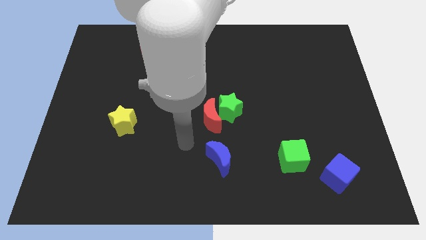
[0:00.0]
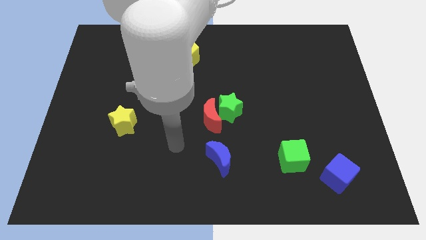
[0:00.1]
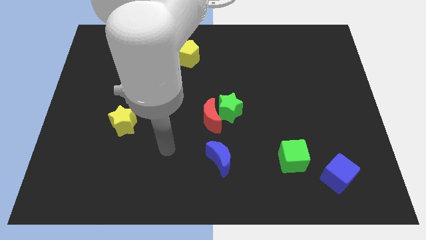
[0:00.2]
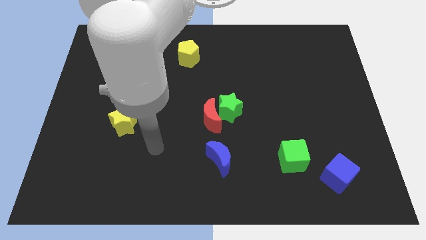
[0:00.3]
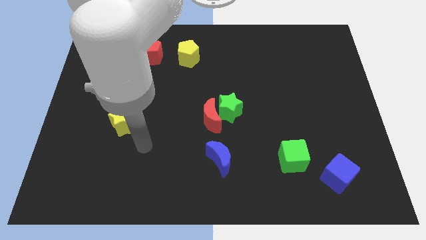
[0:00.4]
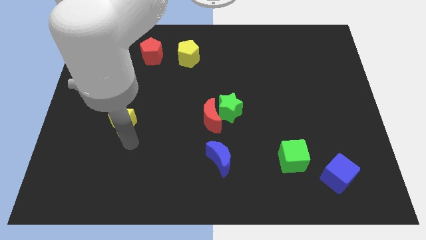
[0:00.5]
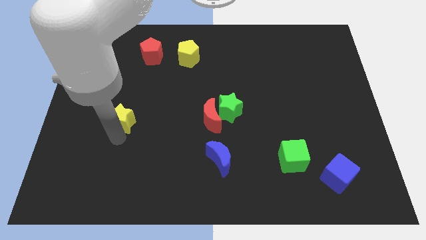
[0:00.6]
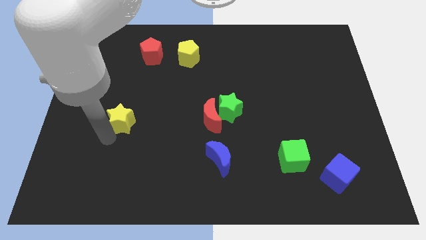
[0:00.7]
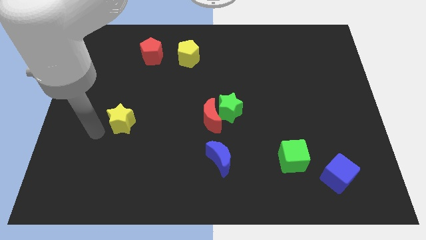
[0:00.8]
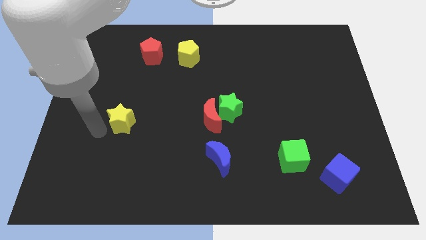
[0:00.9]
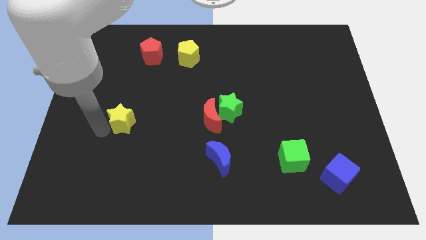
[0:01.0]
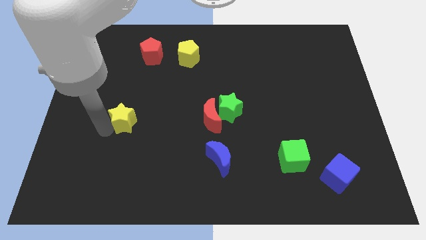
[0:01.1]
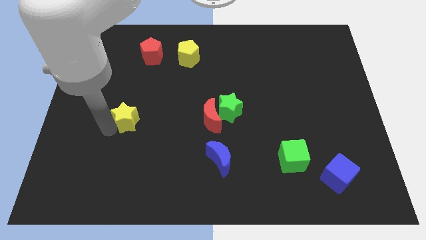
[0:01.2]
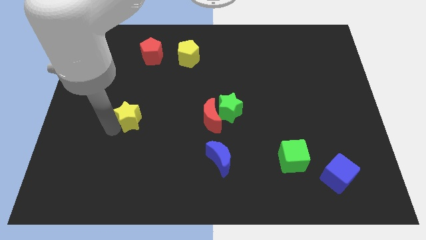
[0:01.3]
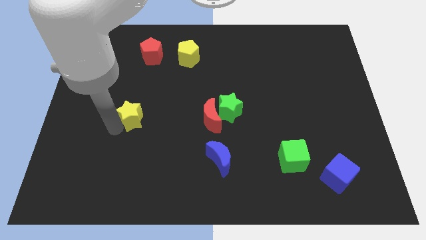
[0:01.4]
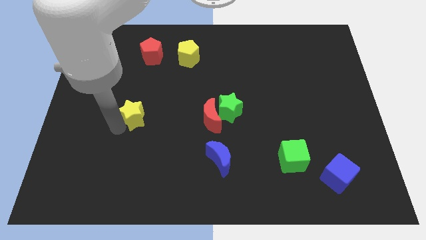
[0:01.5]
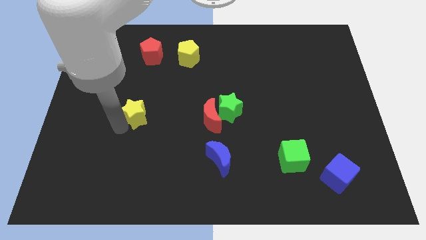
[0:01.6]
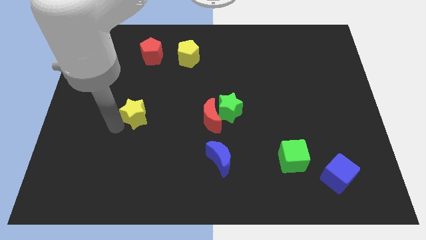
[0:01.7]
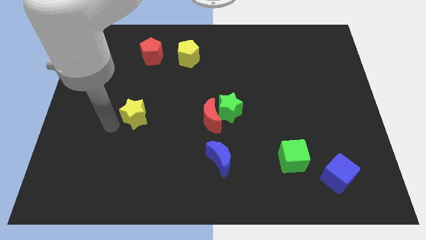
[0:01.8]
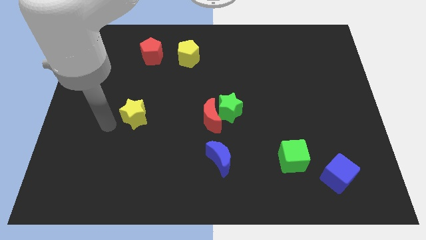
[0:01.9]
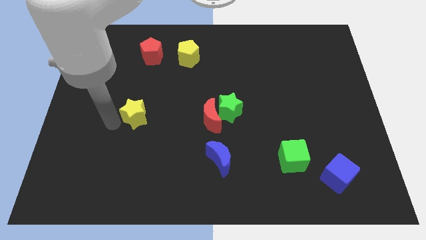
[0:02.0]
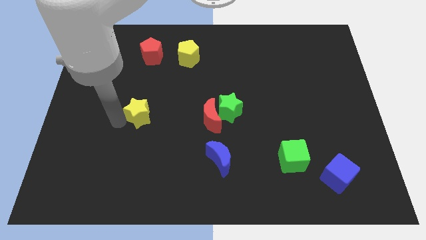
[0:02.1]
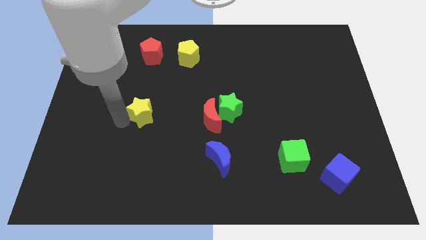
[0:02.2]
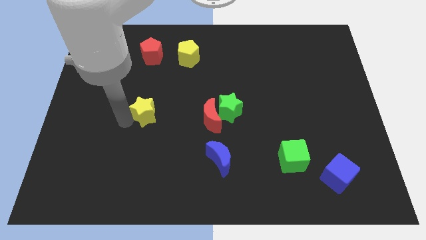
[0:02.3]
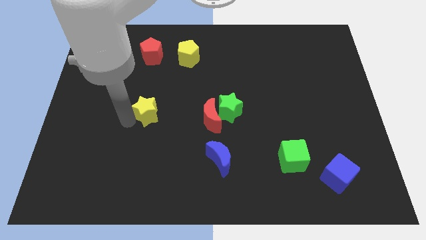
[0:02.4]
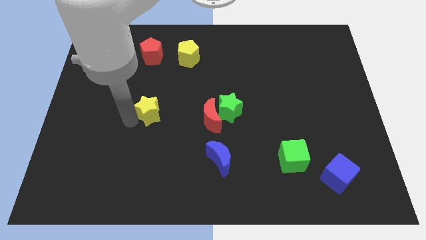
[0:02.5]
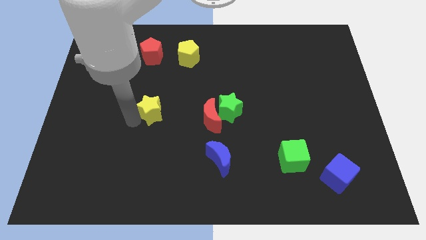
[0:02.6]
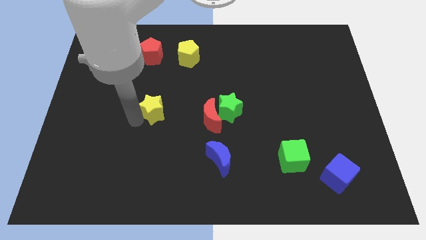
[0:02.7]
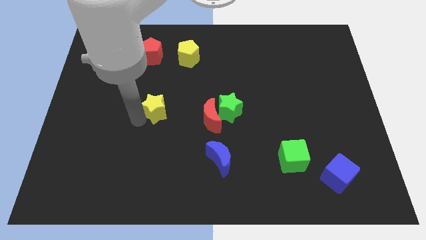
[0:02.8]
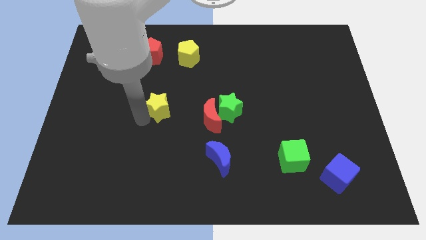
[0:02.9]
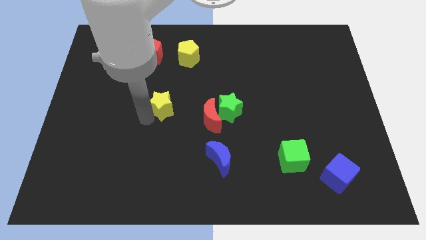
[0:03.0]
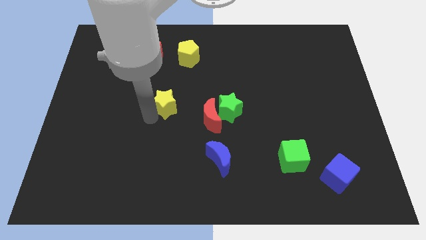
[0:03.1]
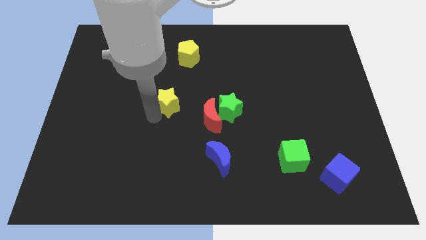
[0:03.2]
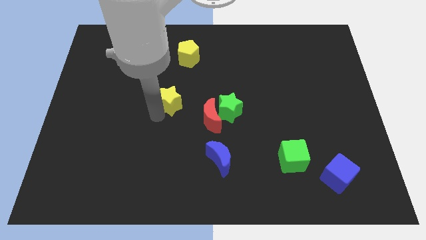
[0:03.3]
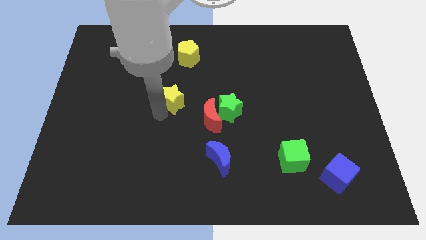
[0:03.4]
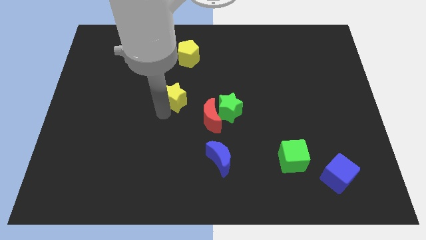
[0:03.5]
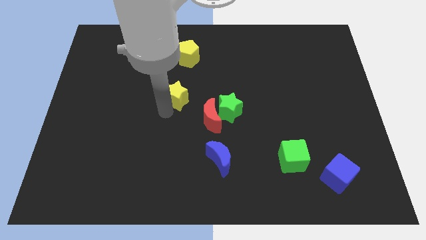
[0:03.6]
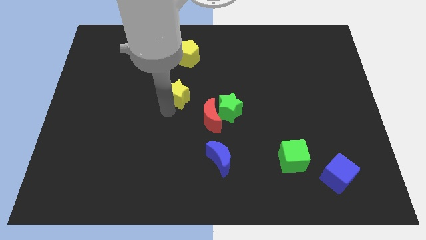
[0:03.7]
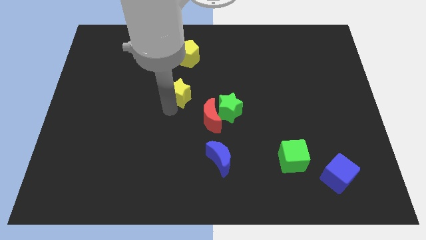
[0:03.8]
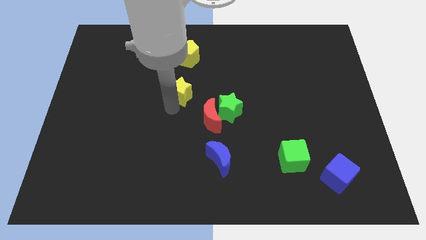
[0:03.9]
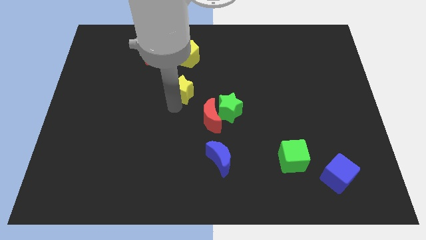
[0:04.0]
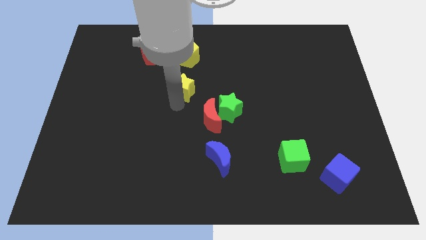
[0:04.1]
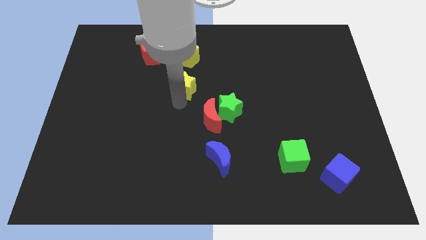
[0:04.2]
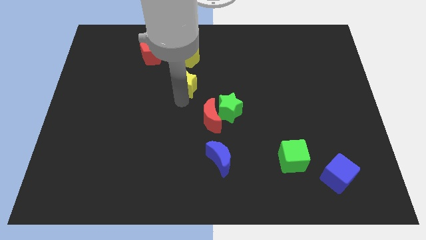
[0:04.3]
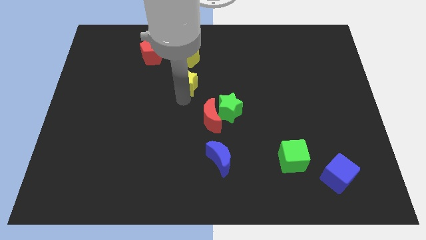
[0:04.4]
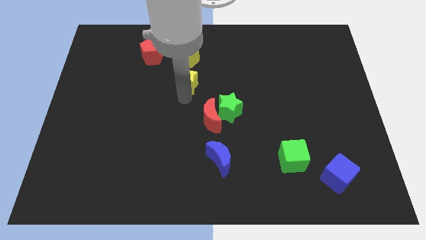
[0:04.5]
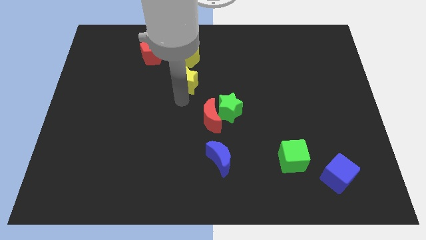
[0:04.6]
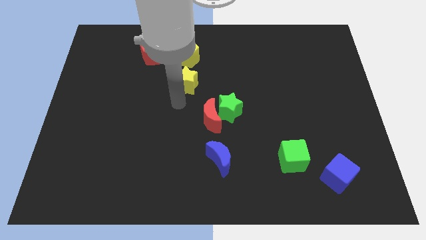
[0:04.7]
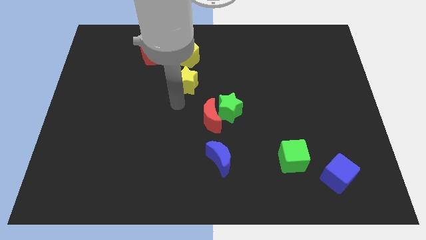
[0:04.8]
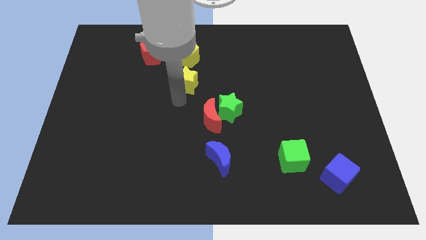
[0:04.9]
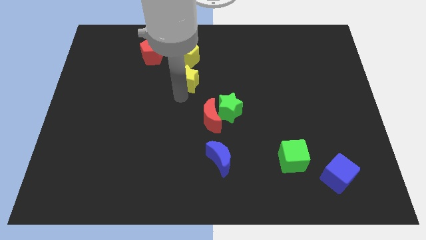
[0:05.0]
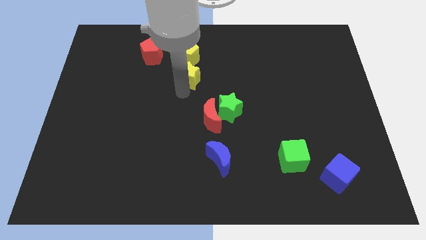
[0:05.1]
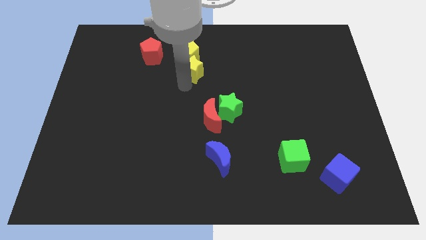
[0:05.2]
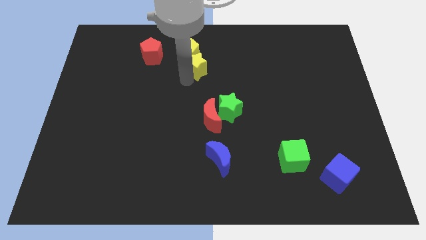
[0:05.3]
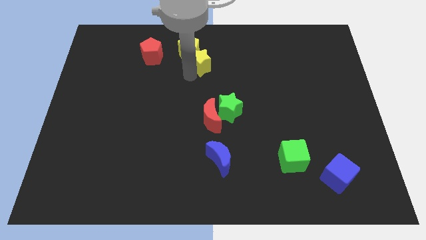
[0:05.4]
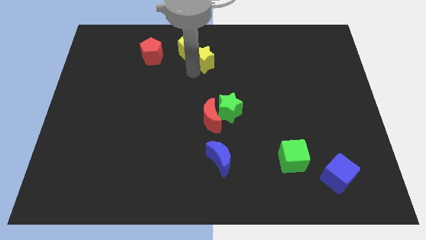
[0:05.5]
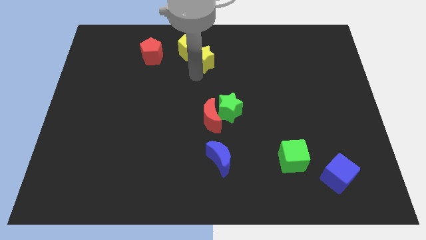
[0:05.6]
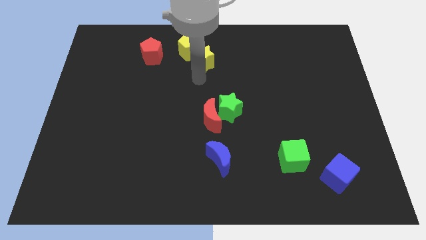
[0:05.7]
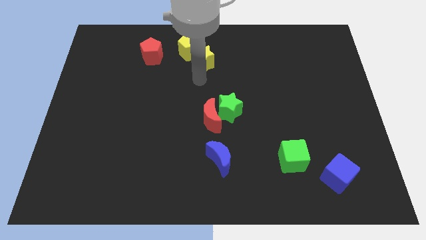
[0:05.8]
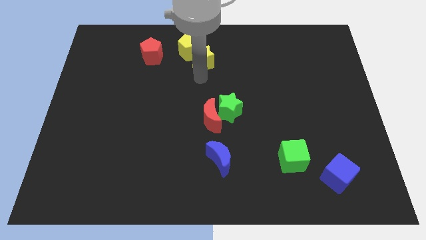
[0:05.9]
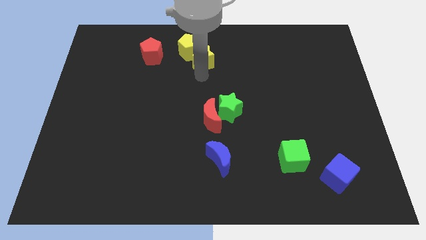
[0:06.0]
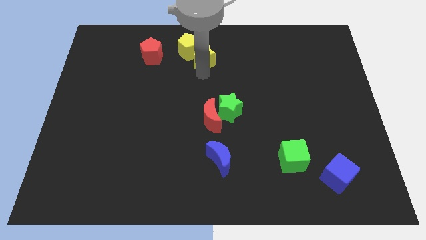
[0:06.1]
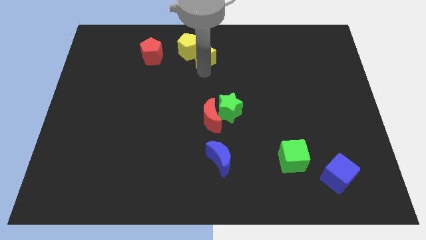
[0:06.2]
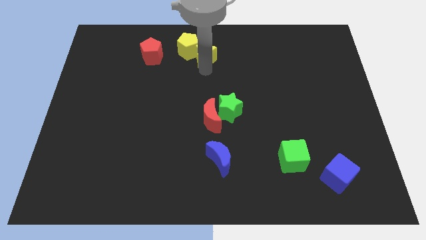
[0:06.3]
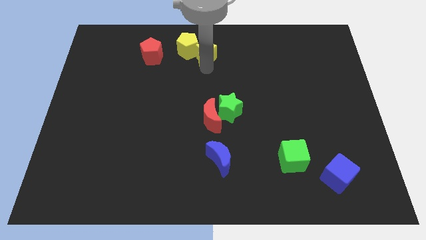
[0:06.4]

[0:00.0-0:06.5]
push the yellow star to the top
